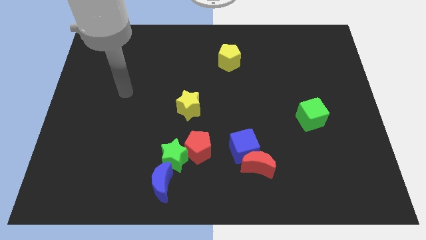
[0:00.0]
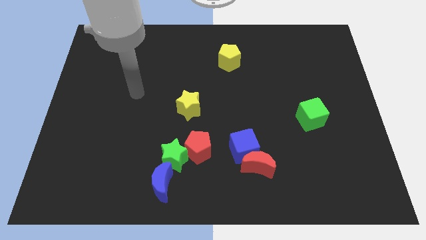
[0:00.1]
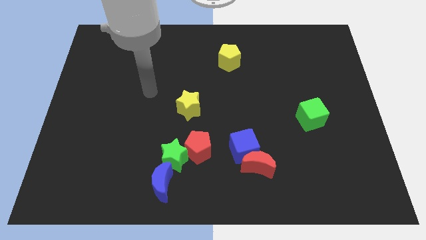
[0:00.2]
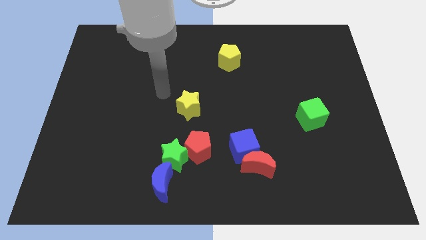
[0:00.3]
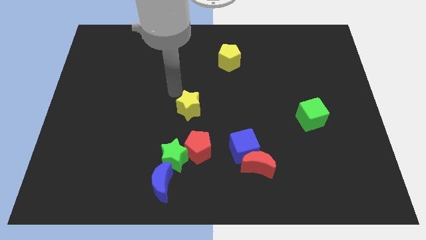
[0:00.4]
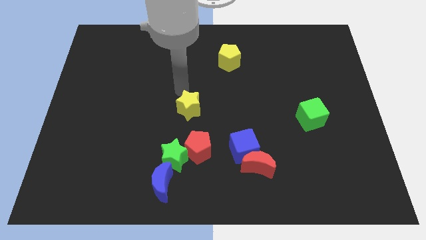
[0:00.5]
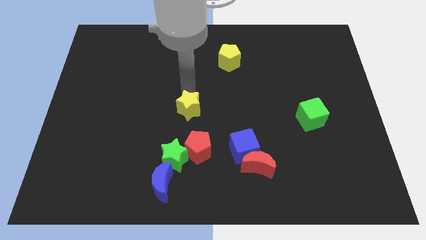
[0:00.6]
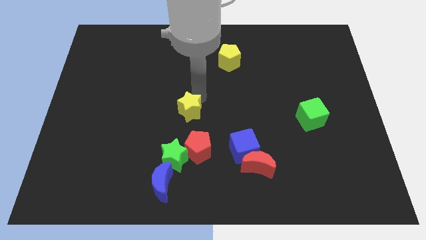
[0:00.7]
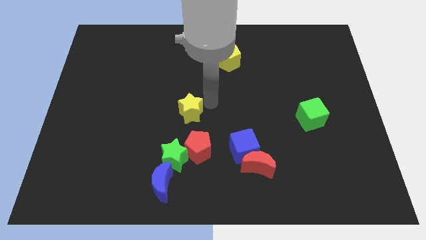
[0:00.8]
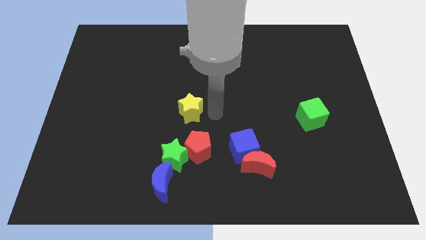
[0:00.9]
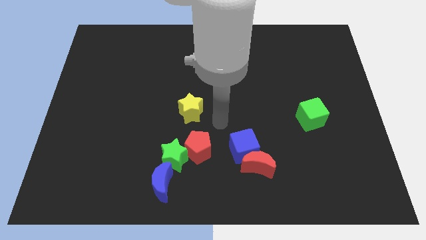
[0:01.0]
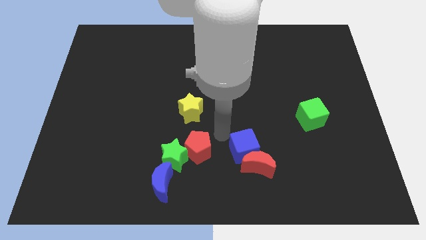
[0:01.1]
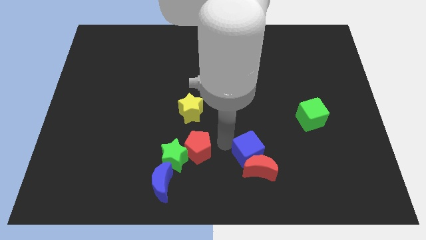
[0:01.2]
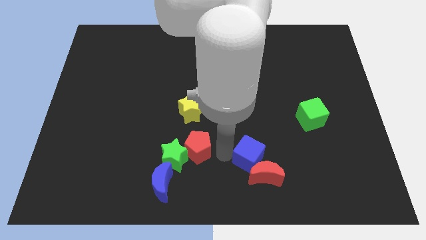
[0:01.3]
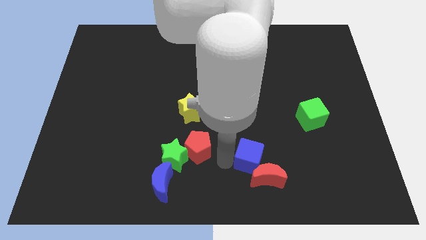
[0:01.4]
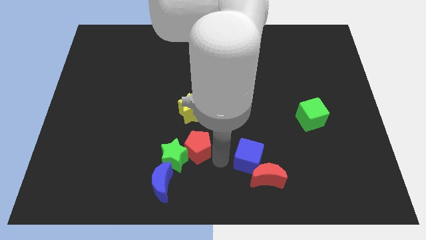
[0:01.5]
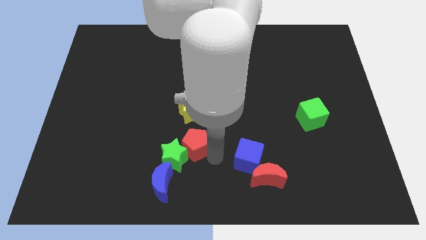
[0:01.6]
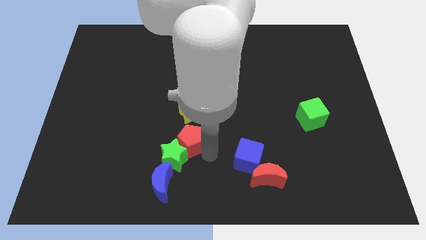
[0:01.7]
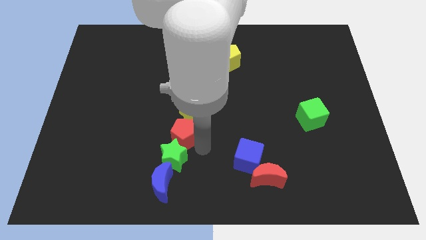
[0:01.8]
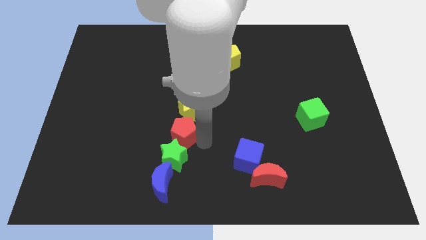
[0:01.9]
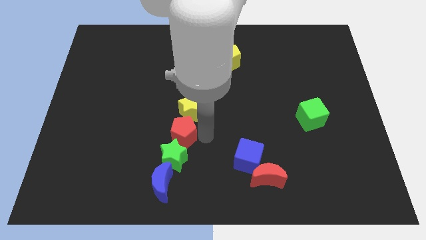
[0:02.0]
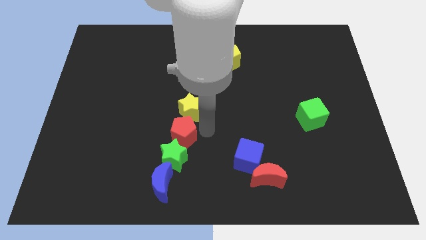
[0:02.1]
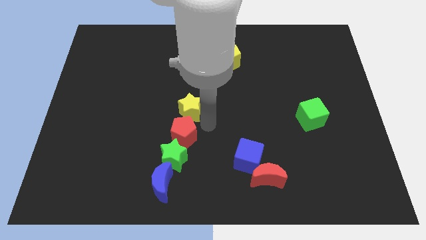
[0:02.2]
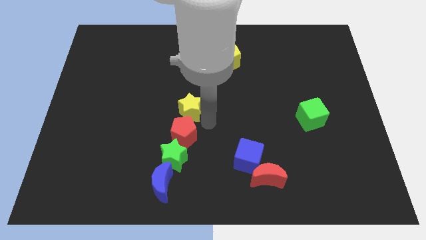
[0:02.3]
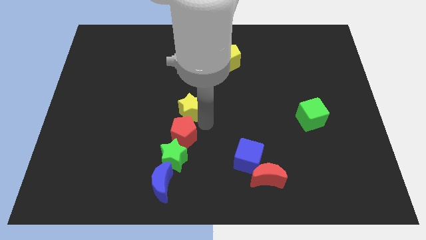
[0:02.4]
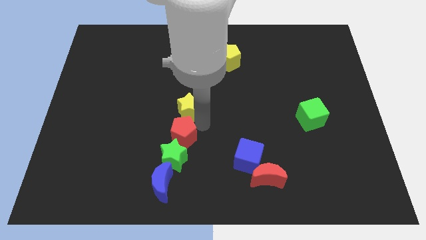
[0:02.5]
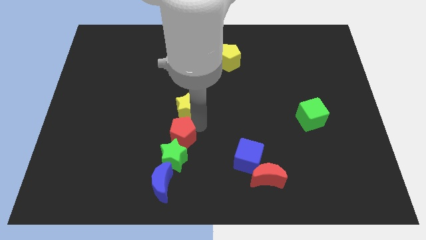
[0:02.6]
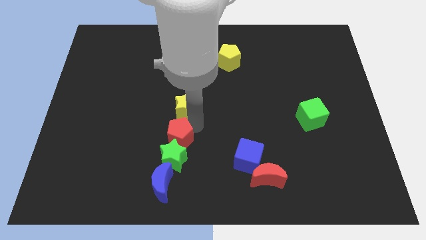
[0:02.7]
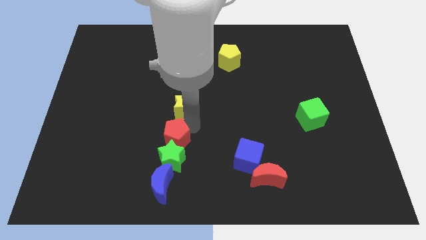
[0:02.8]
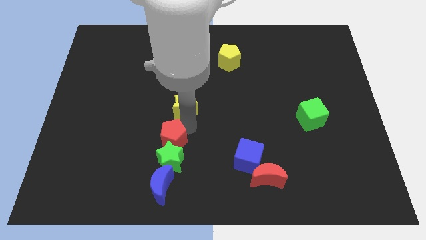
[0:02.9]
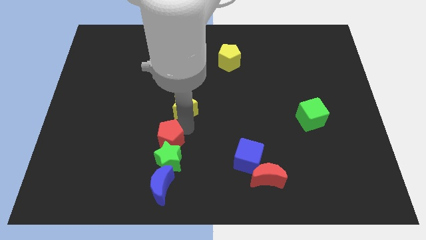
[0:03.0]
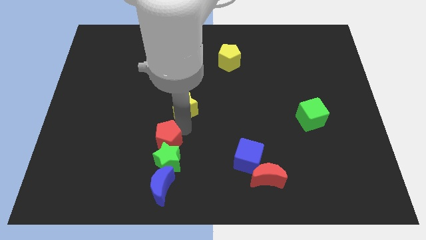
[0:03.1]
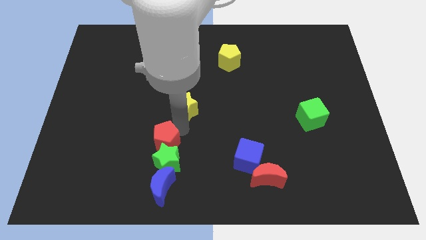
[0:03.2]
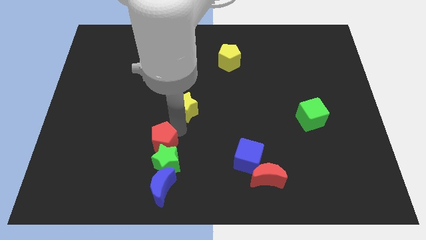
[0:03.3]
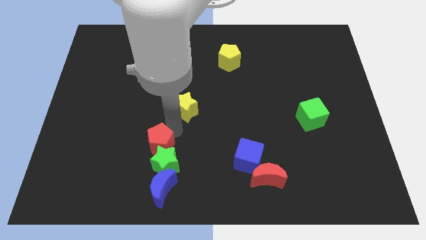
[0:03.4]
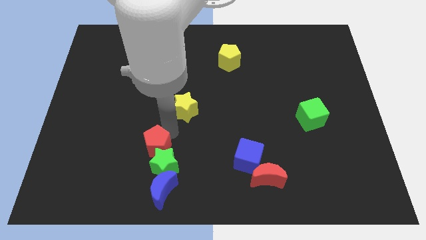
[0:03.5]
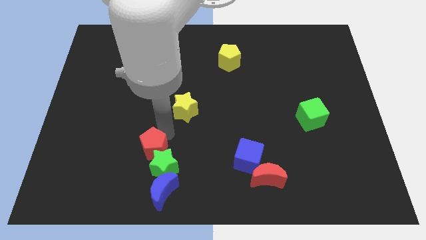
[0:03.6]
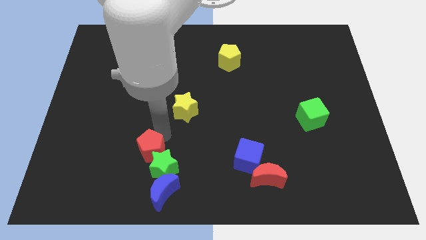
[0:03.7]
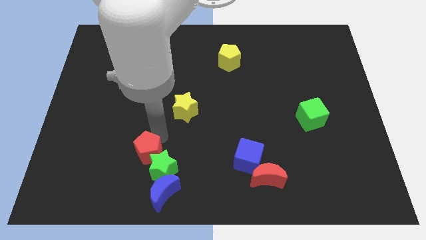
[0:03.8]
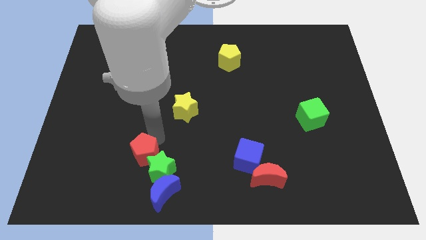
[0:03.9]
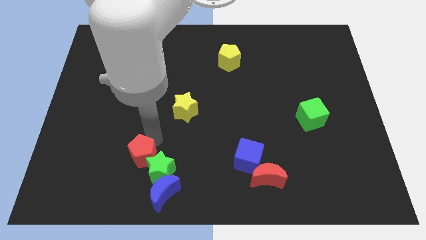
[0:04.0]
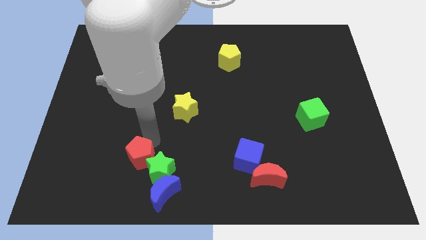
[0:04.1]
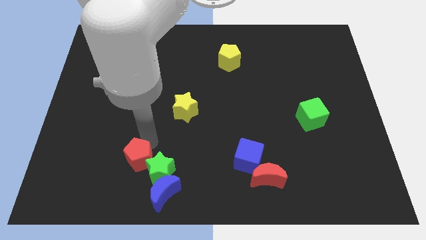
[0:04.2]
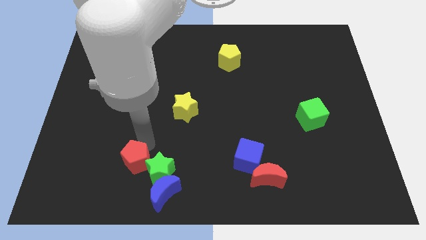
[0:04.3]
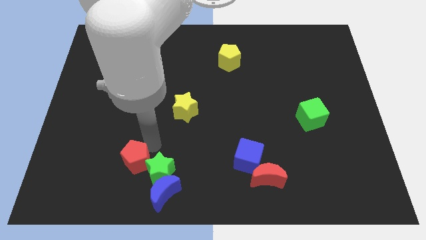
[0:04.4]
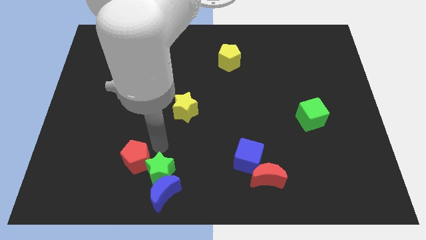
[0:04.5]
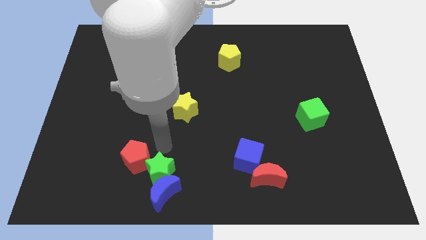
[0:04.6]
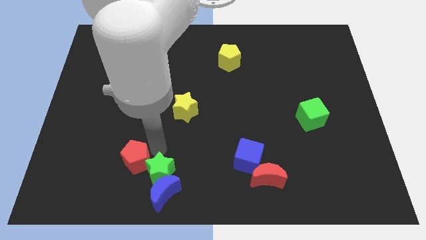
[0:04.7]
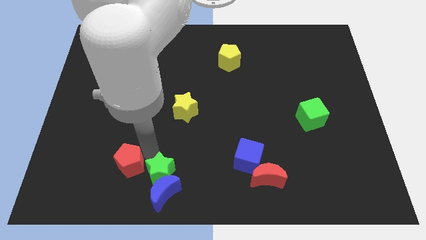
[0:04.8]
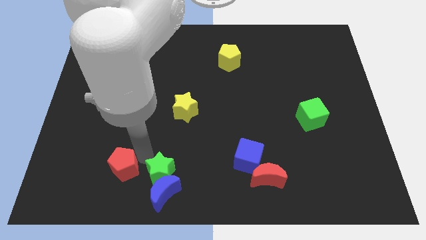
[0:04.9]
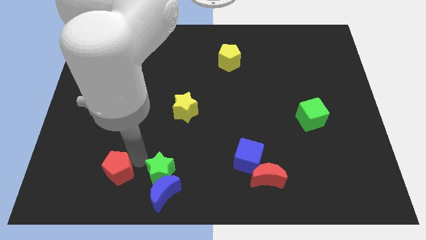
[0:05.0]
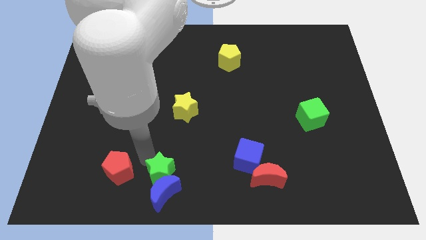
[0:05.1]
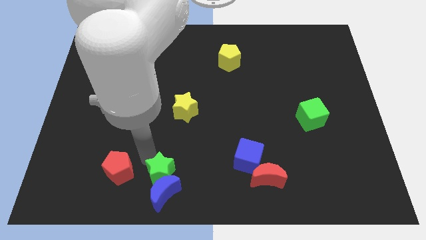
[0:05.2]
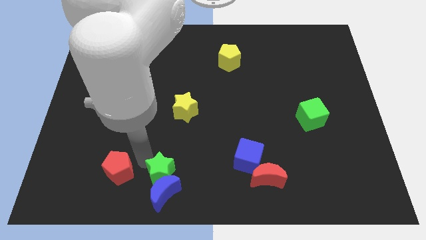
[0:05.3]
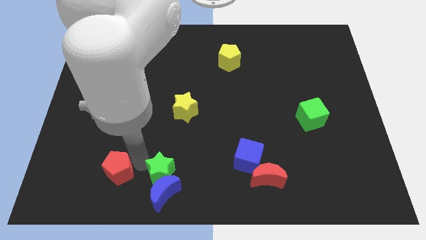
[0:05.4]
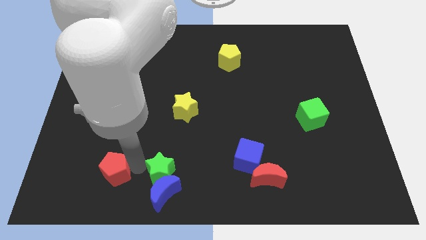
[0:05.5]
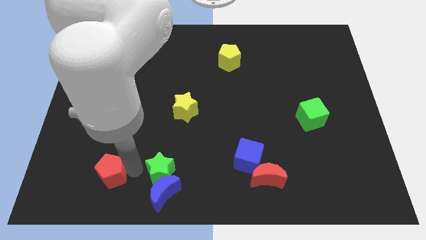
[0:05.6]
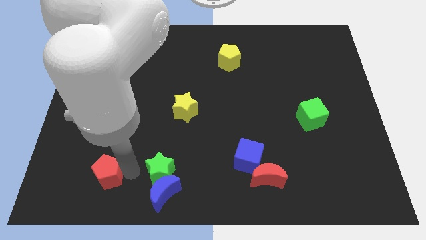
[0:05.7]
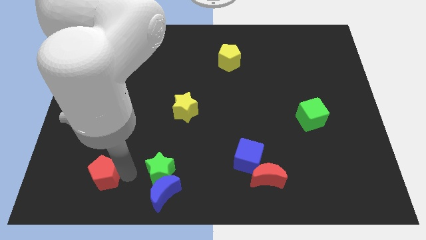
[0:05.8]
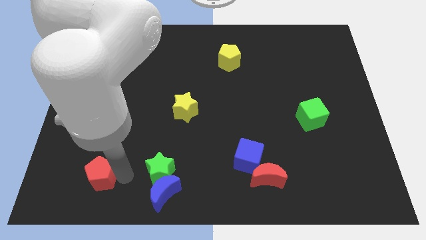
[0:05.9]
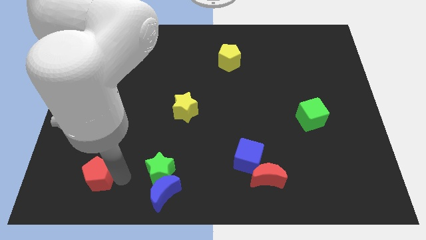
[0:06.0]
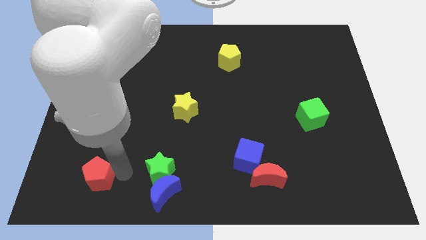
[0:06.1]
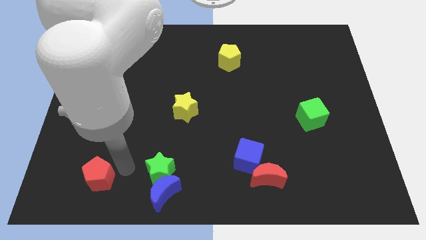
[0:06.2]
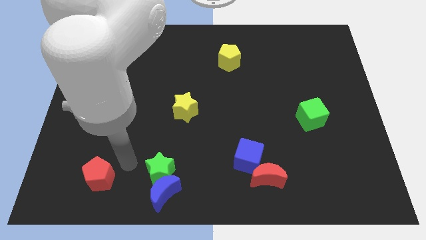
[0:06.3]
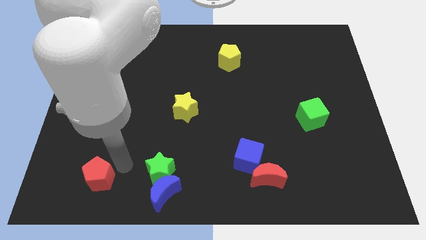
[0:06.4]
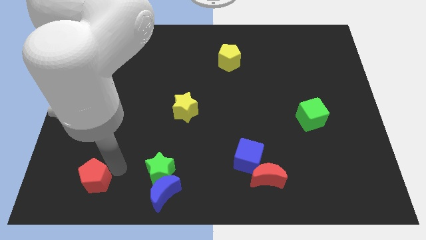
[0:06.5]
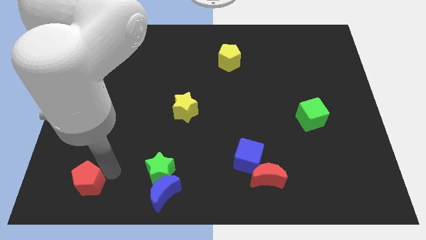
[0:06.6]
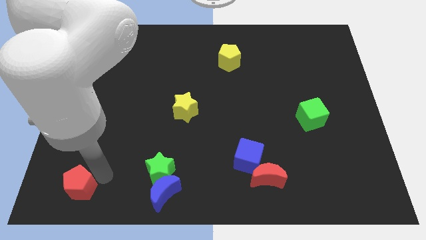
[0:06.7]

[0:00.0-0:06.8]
push the red pentagon to the bottom left of the board
